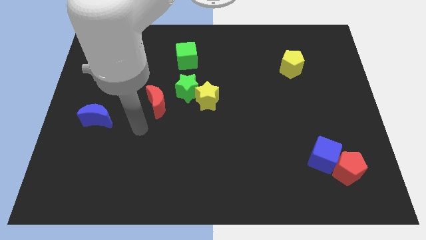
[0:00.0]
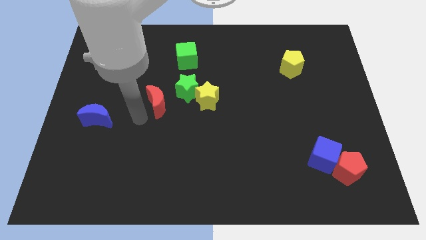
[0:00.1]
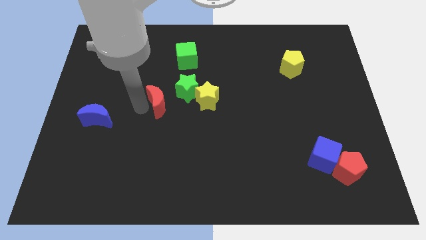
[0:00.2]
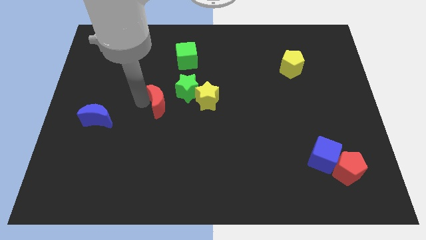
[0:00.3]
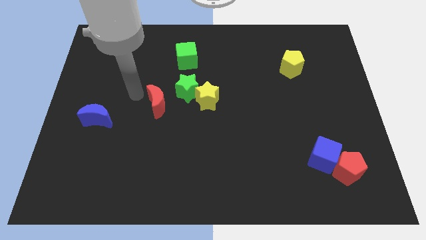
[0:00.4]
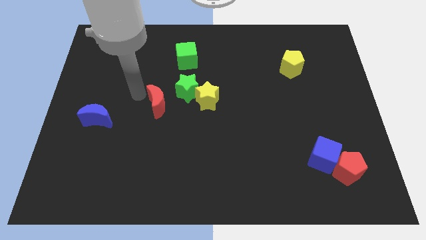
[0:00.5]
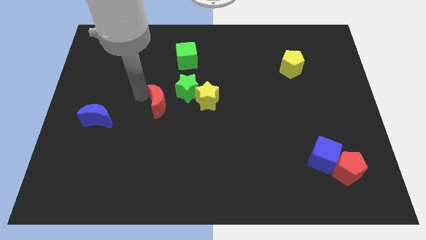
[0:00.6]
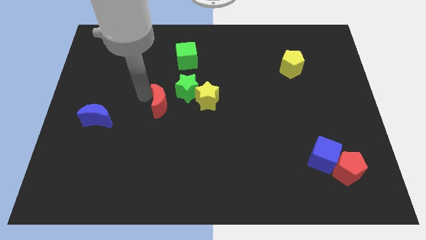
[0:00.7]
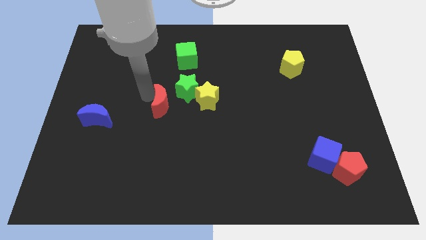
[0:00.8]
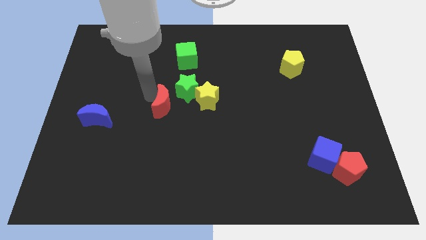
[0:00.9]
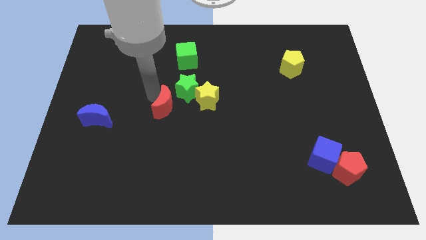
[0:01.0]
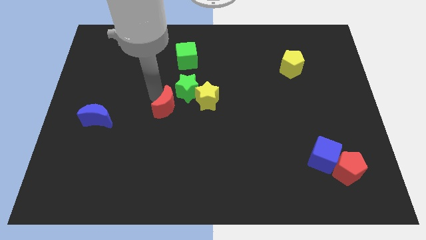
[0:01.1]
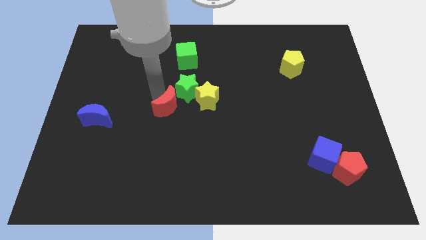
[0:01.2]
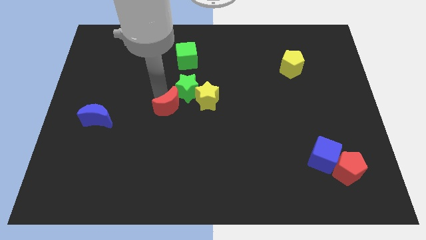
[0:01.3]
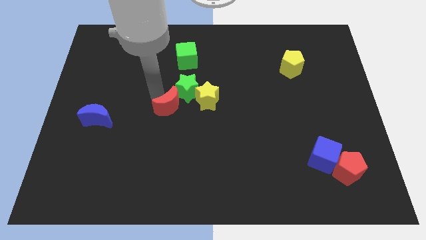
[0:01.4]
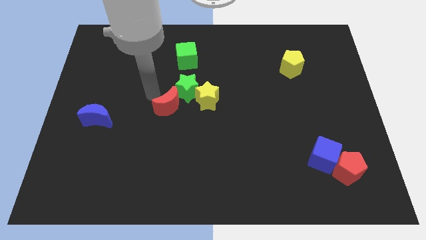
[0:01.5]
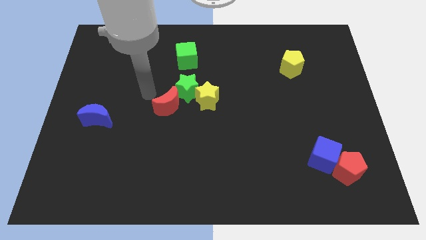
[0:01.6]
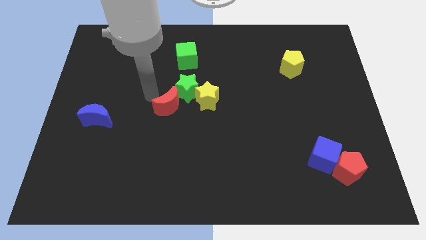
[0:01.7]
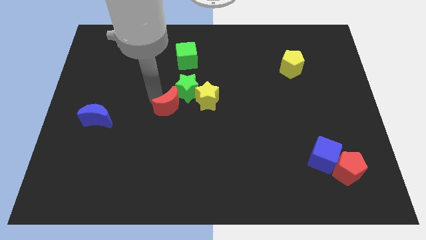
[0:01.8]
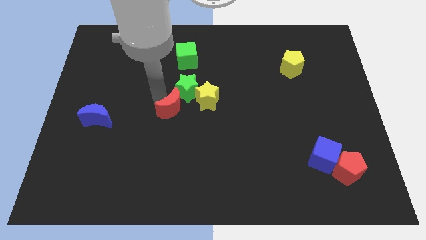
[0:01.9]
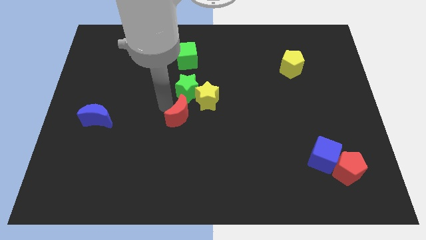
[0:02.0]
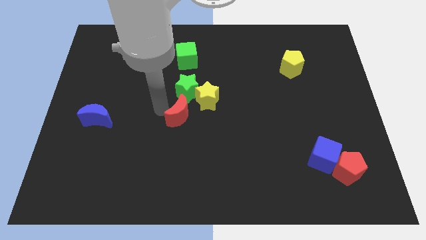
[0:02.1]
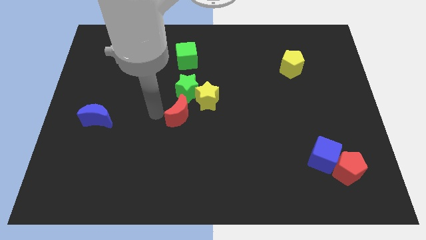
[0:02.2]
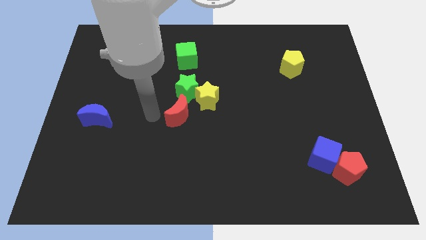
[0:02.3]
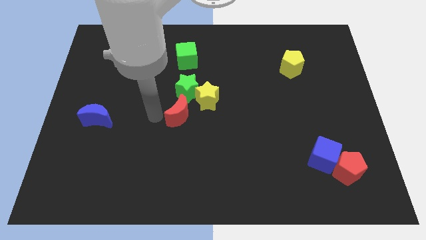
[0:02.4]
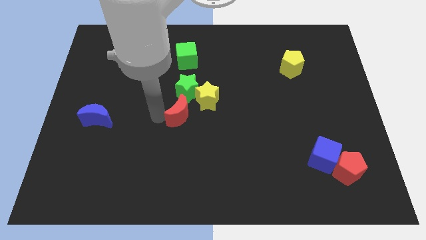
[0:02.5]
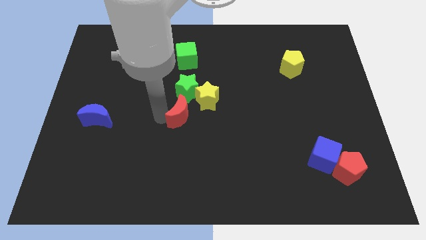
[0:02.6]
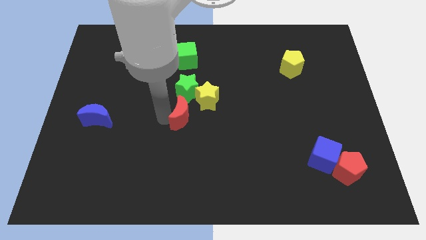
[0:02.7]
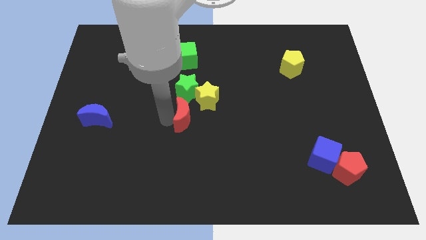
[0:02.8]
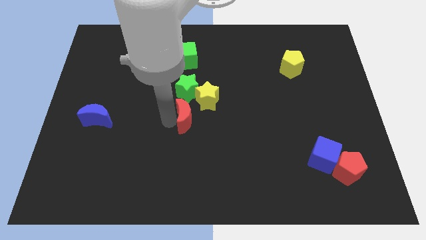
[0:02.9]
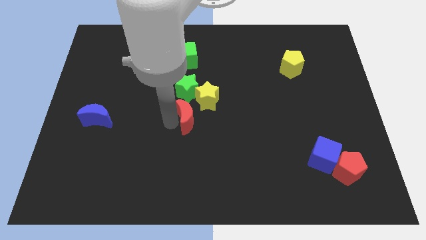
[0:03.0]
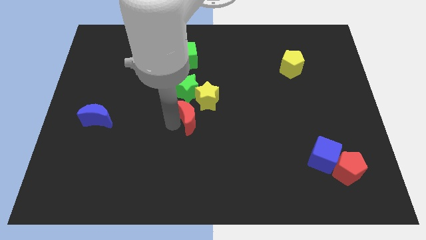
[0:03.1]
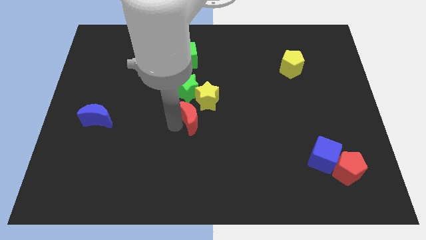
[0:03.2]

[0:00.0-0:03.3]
slightly move the red moon right

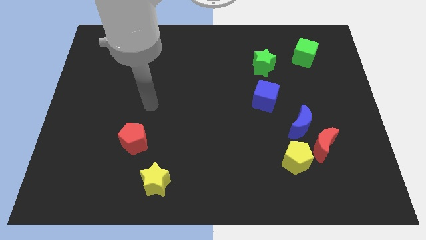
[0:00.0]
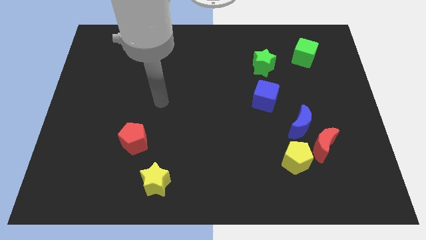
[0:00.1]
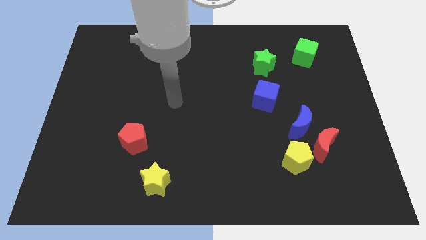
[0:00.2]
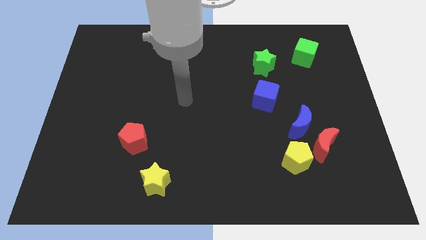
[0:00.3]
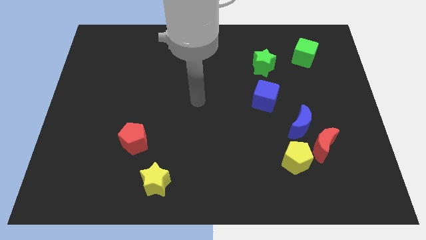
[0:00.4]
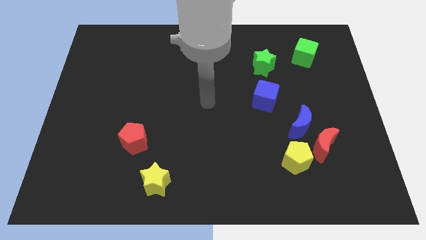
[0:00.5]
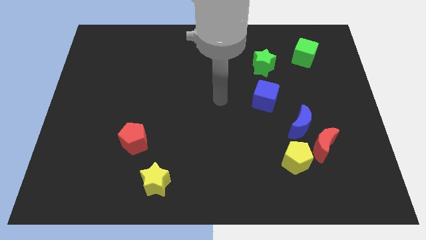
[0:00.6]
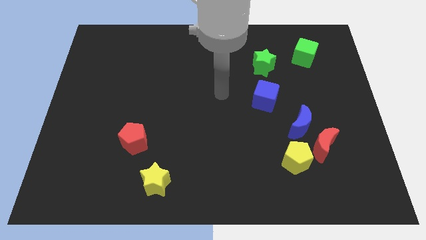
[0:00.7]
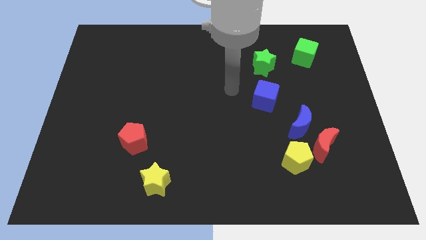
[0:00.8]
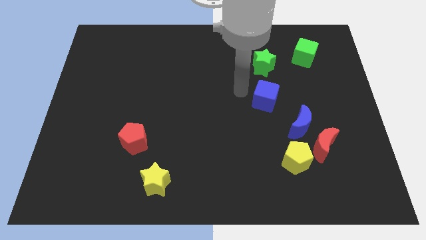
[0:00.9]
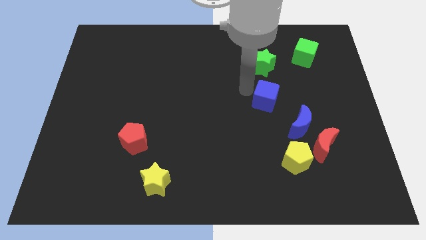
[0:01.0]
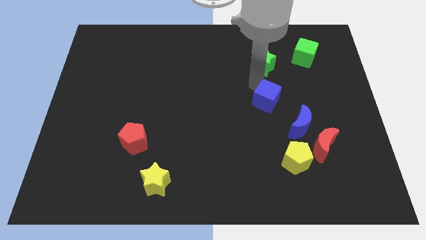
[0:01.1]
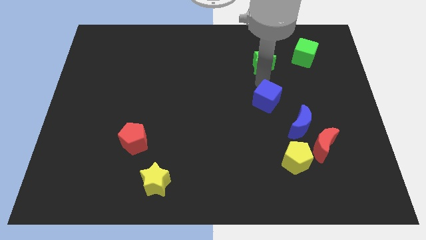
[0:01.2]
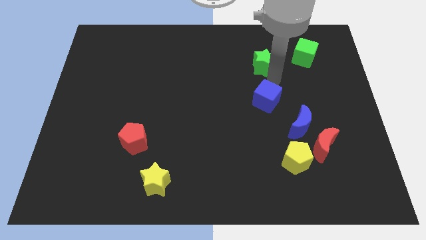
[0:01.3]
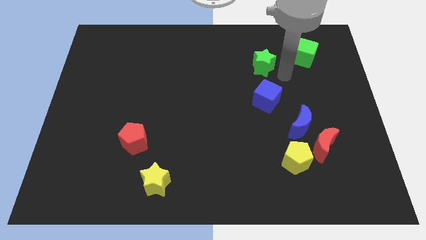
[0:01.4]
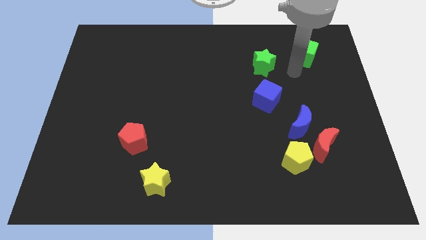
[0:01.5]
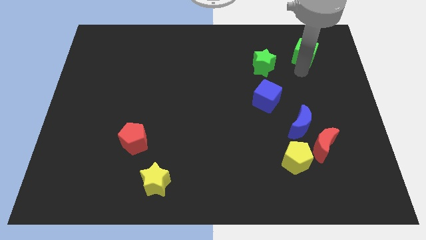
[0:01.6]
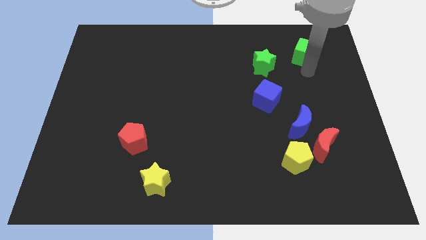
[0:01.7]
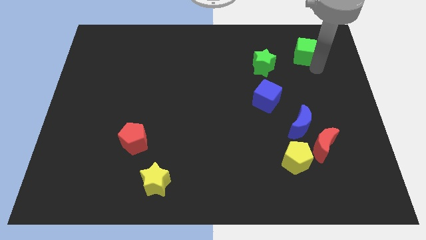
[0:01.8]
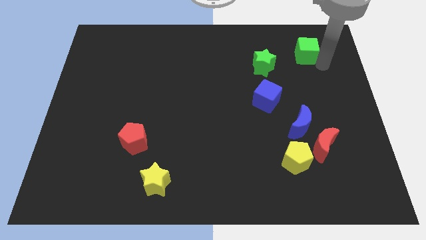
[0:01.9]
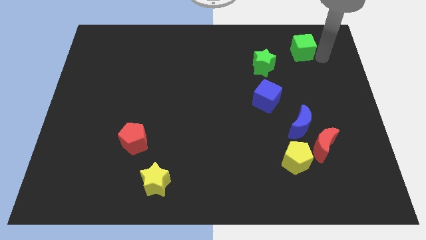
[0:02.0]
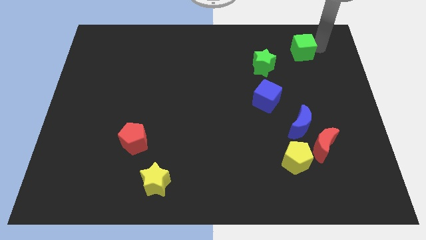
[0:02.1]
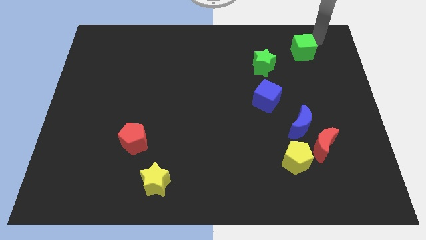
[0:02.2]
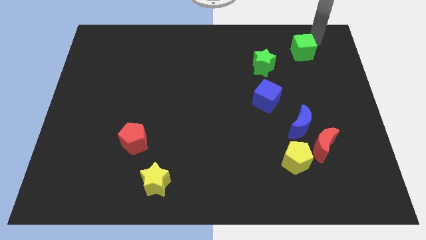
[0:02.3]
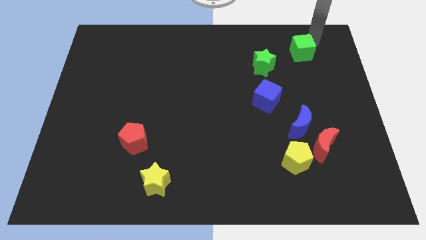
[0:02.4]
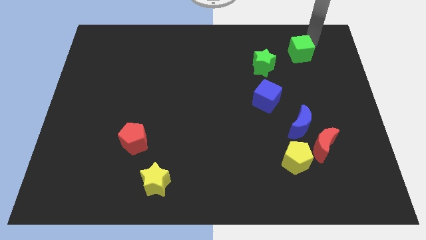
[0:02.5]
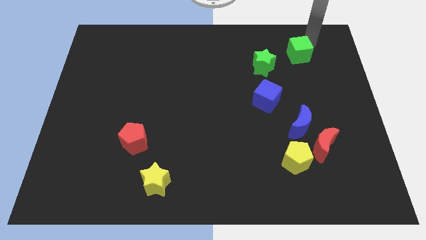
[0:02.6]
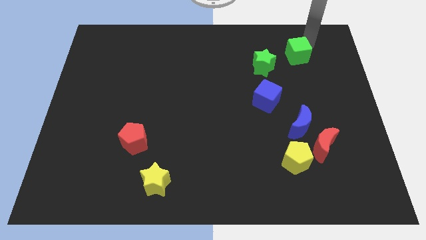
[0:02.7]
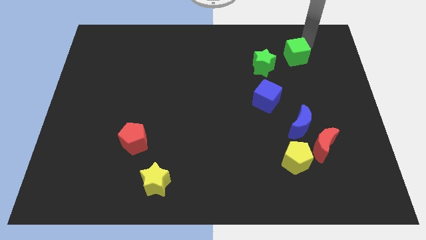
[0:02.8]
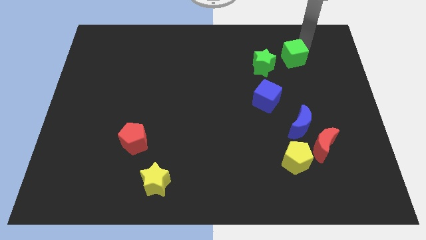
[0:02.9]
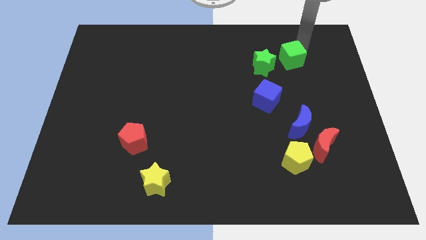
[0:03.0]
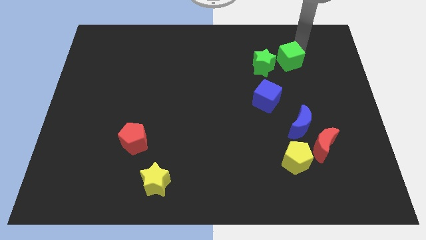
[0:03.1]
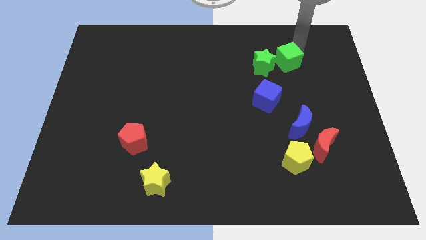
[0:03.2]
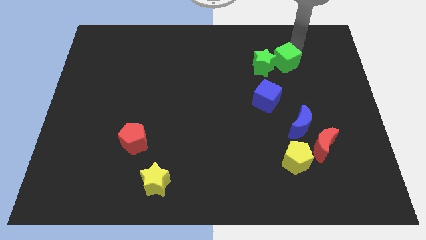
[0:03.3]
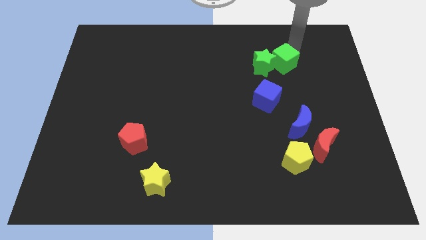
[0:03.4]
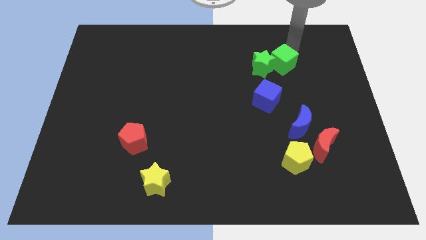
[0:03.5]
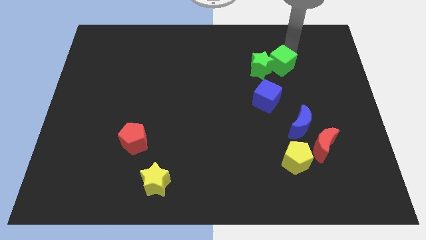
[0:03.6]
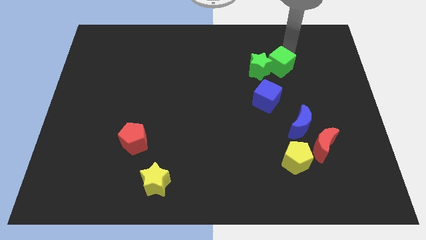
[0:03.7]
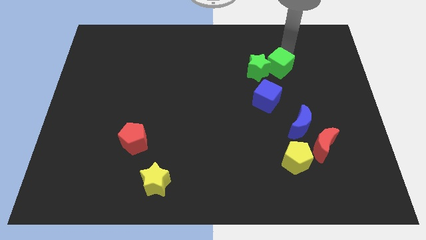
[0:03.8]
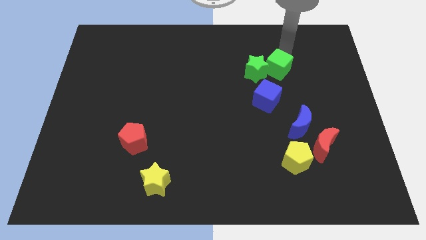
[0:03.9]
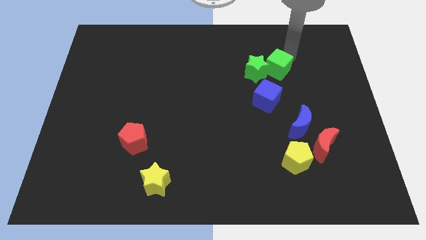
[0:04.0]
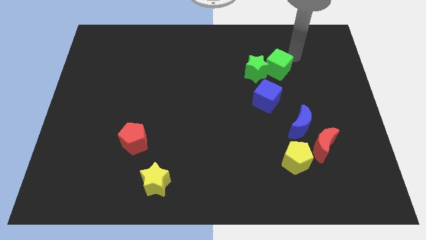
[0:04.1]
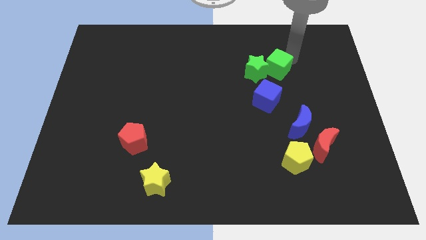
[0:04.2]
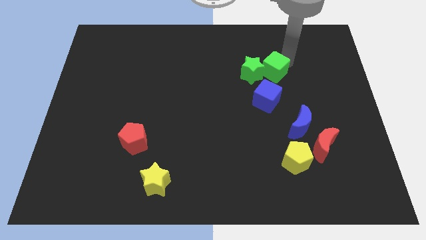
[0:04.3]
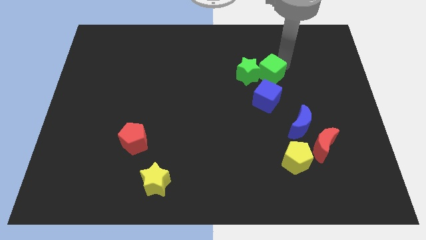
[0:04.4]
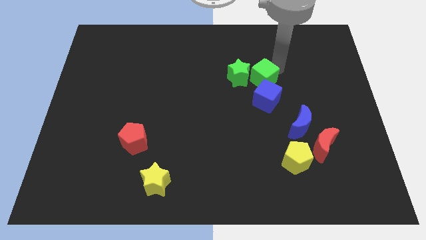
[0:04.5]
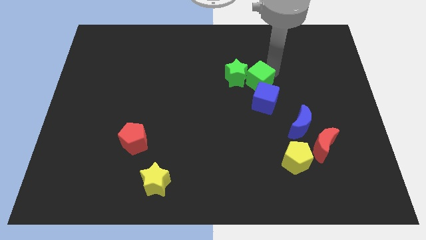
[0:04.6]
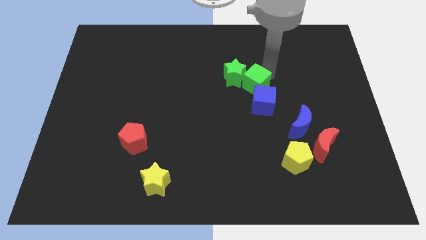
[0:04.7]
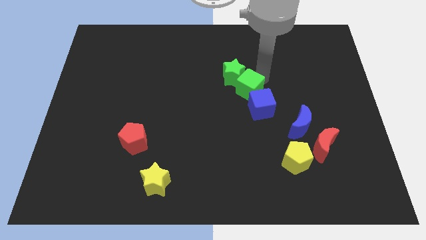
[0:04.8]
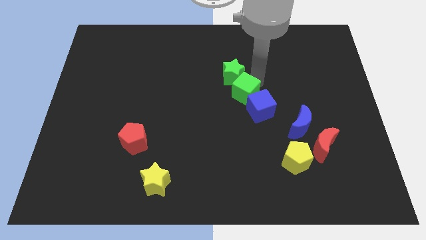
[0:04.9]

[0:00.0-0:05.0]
slide the green cube down and to the left
